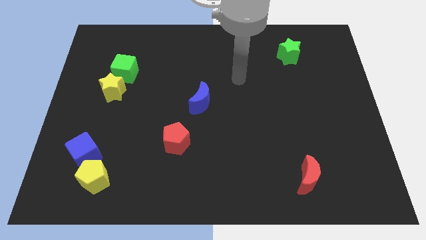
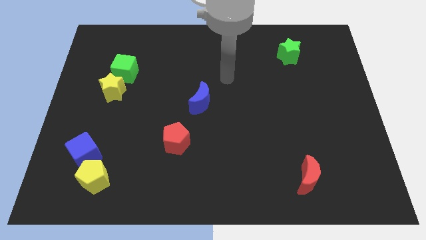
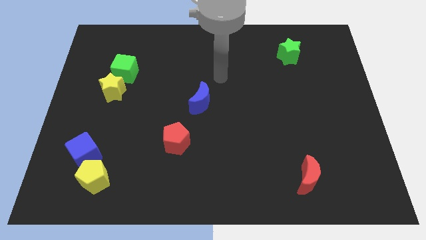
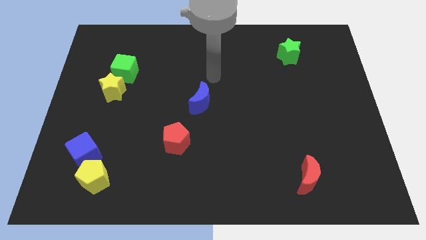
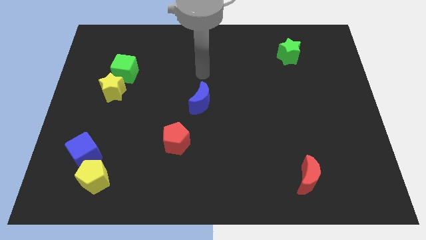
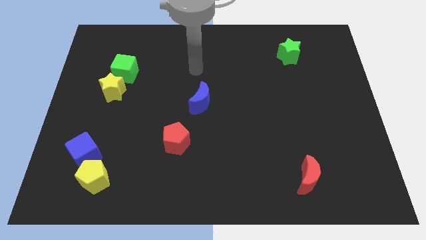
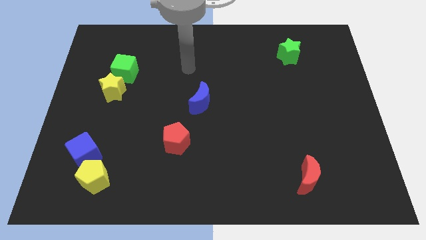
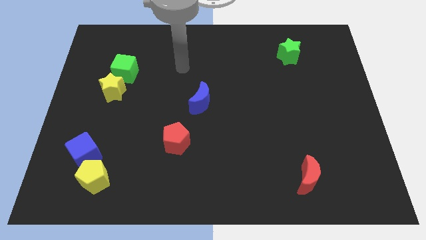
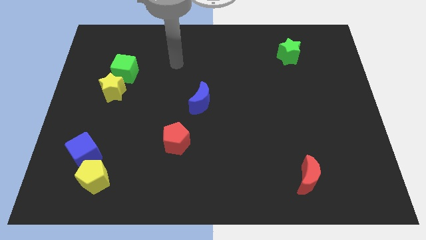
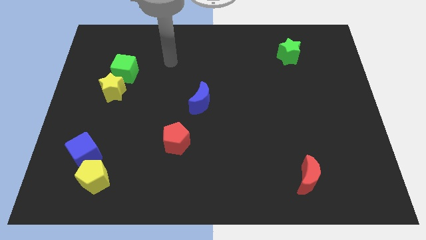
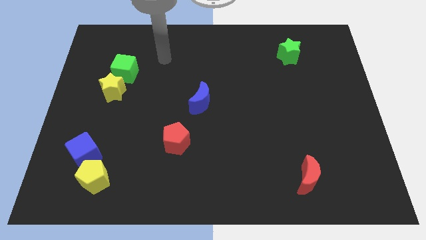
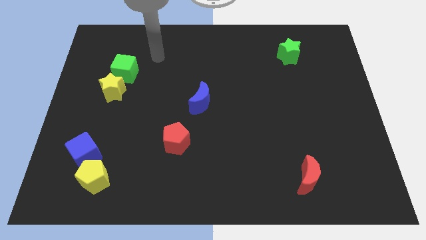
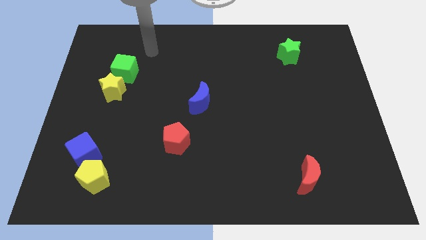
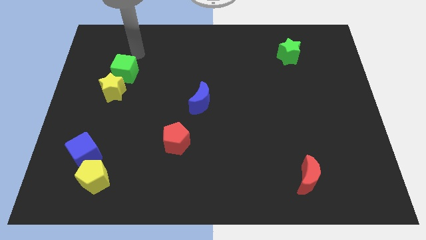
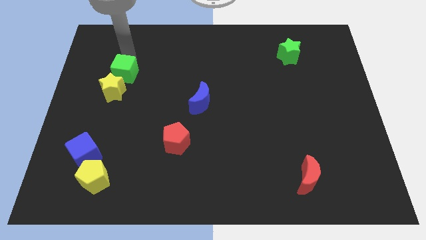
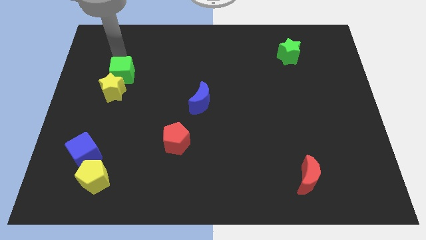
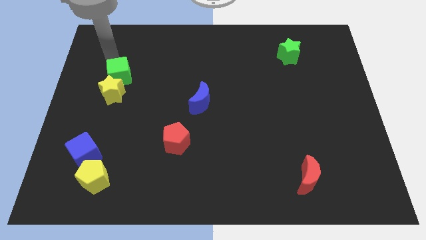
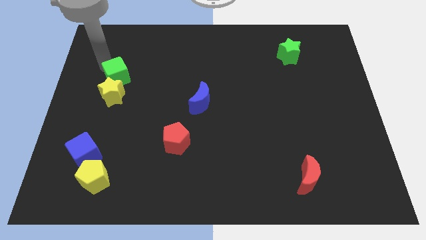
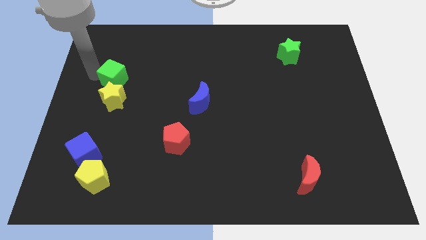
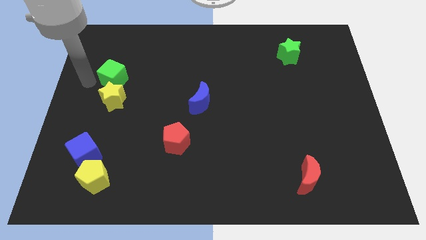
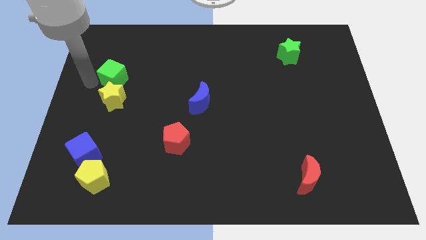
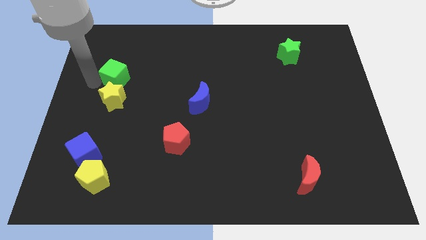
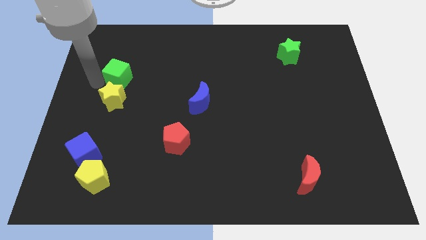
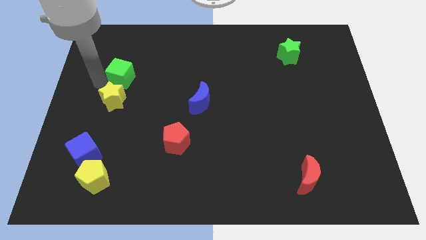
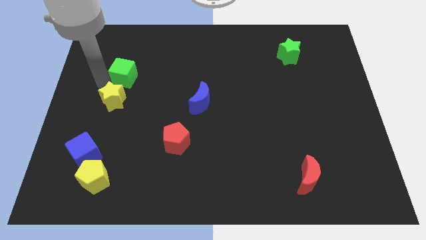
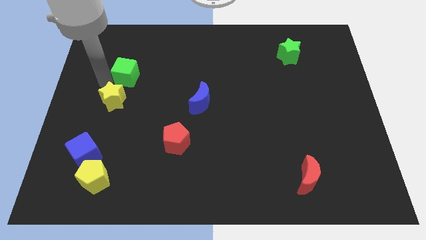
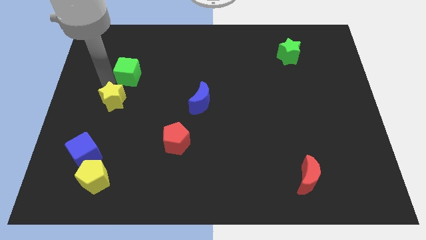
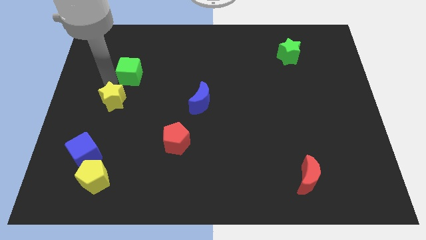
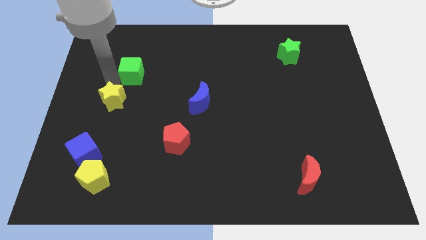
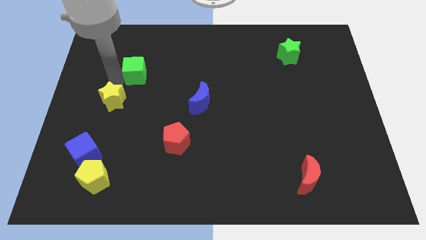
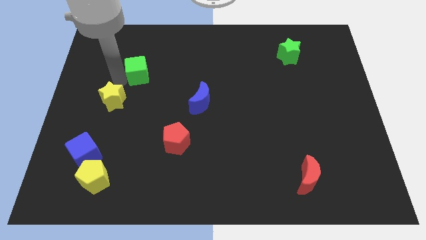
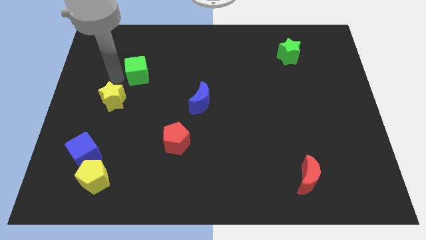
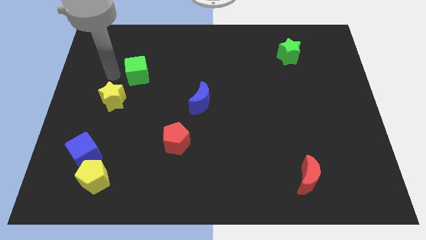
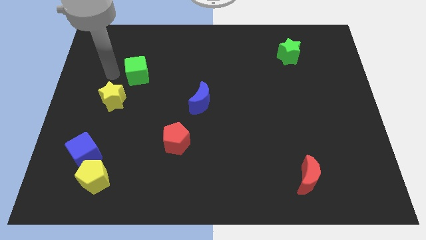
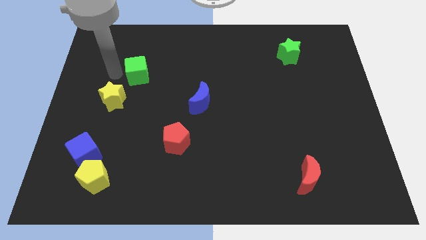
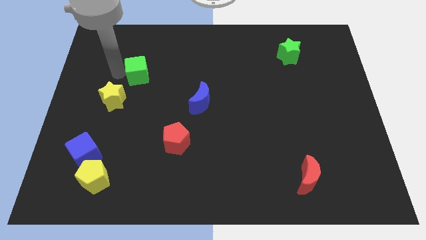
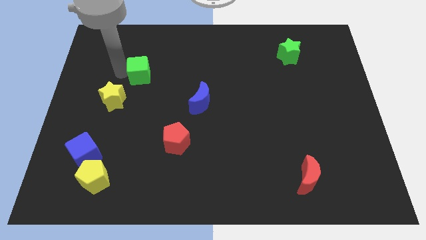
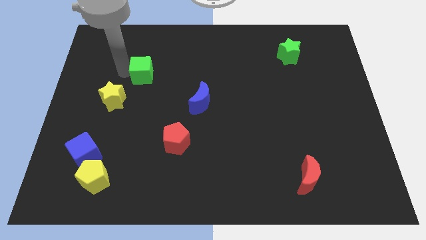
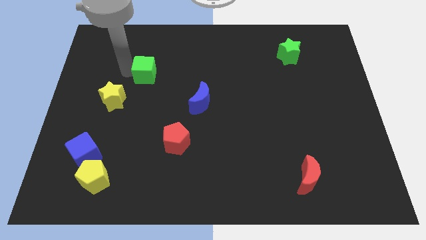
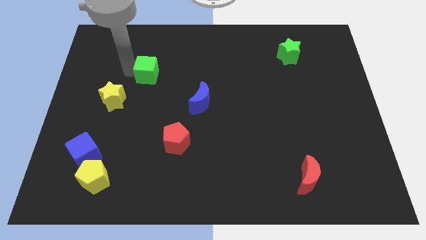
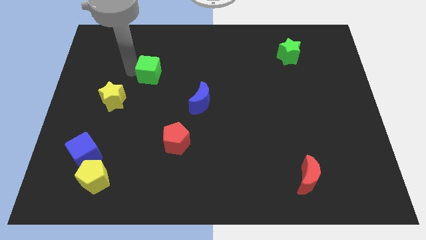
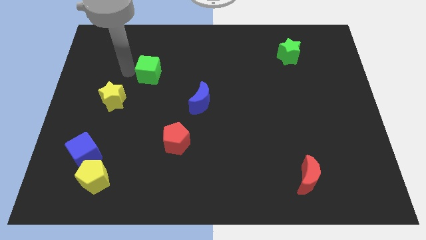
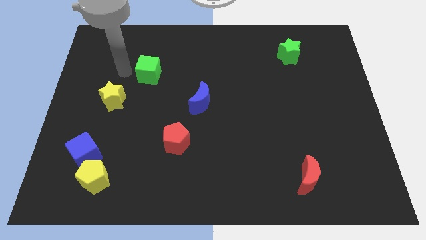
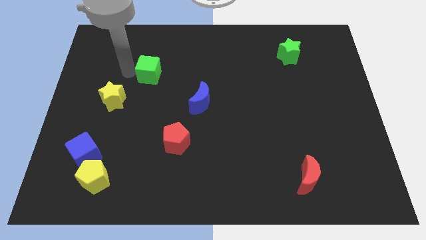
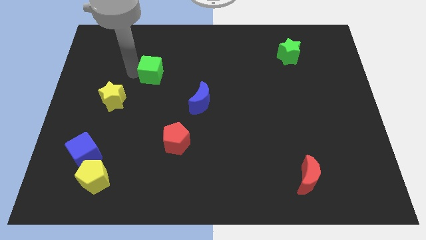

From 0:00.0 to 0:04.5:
push the green cube a bit to the right

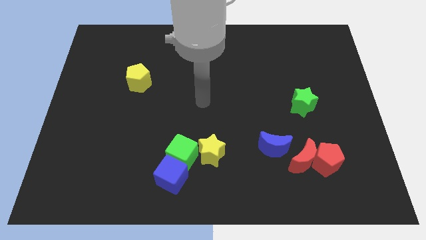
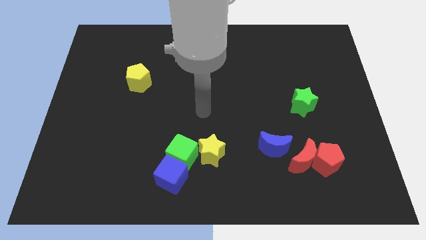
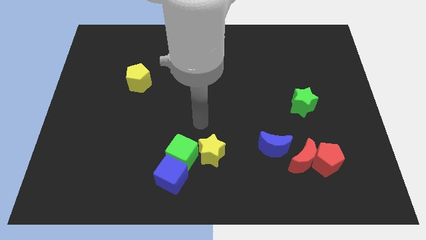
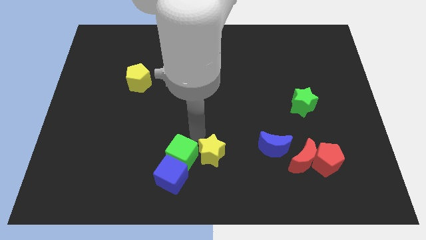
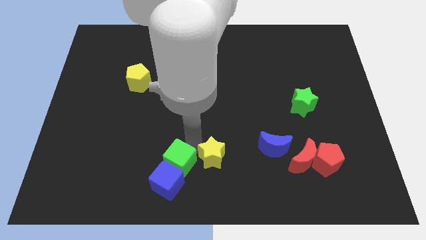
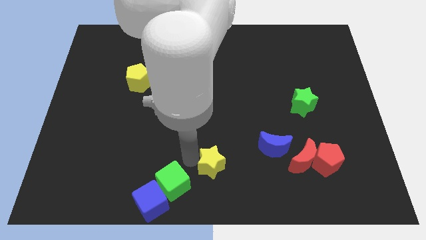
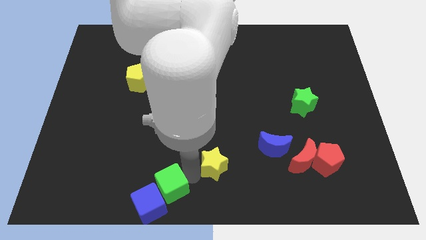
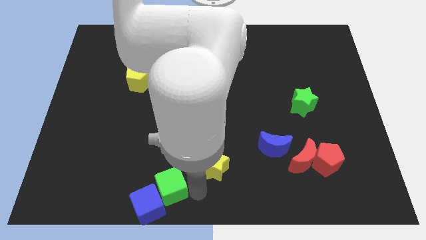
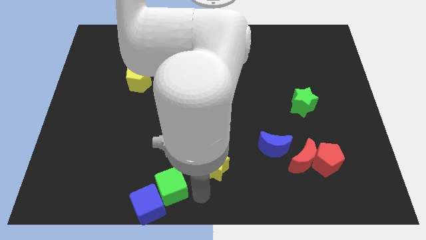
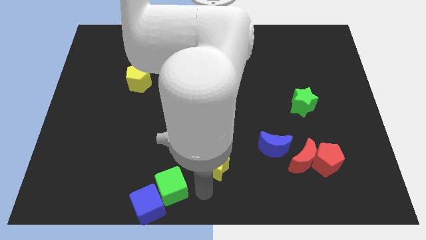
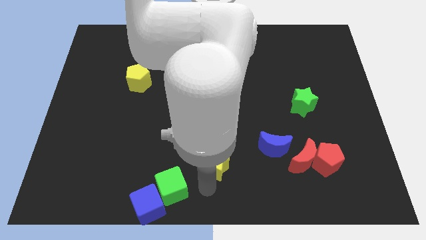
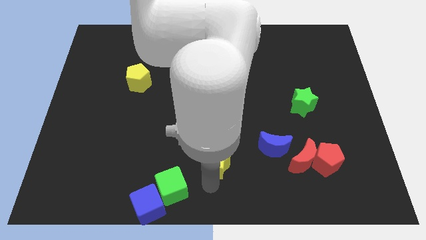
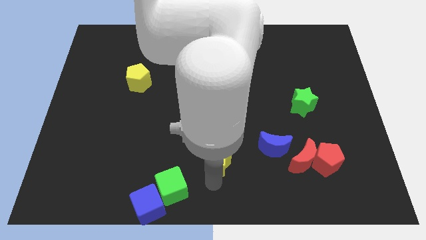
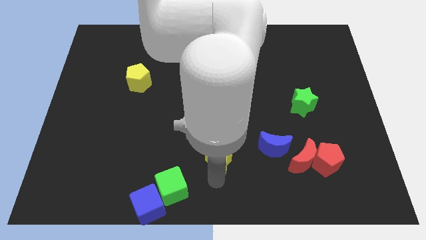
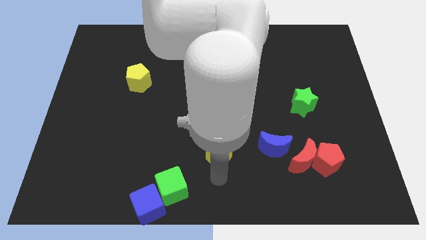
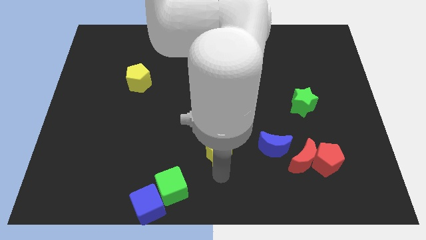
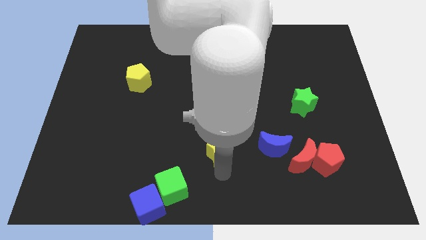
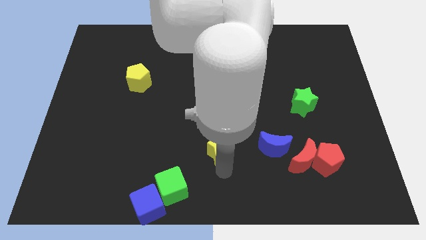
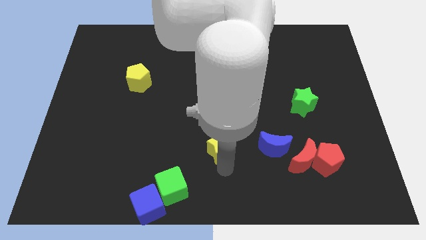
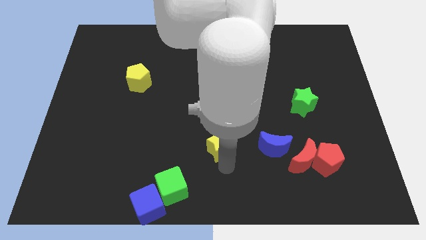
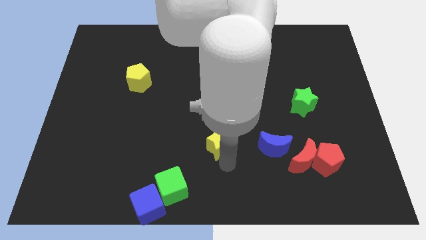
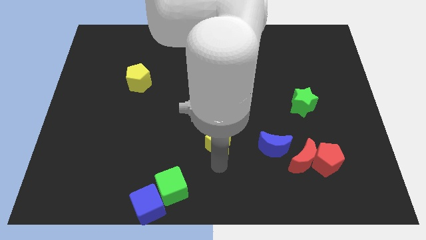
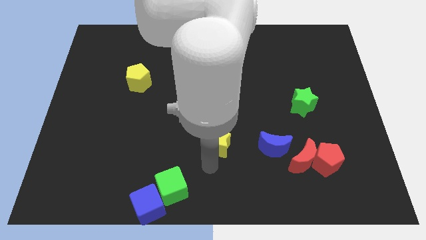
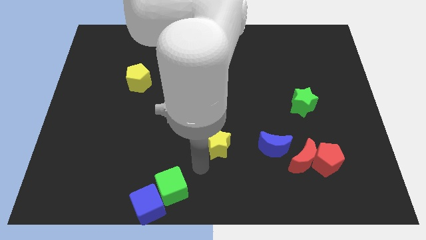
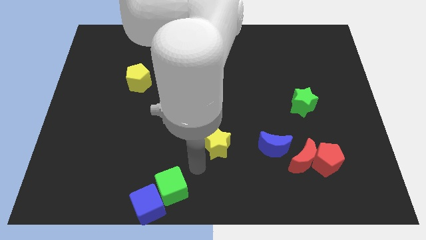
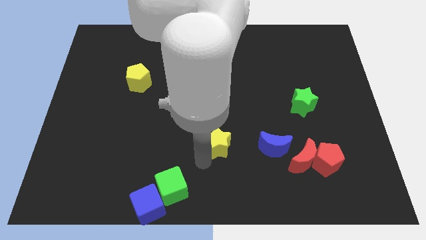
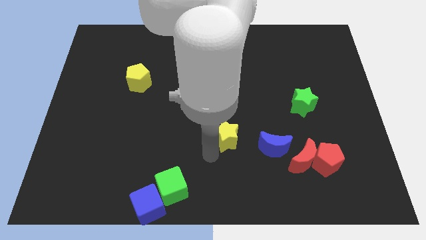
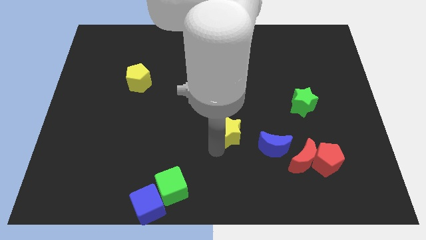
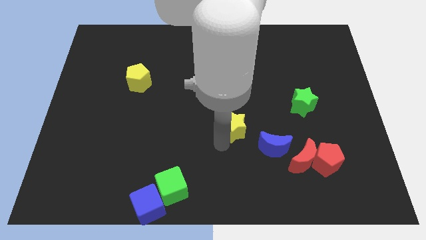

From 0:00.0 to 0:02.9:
push the yellow star up and to the right diagonally a little

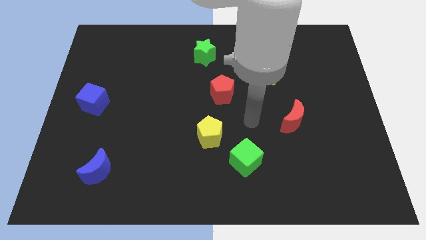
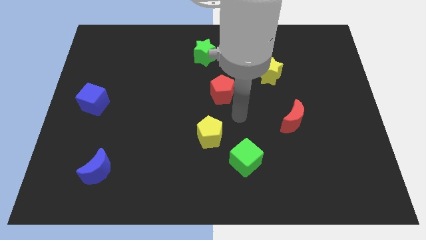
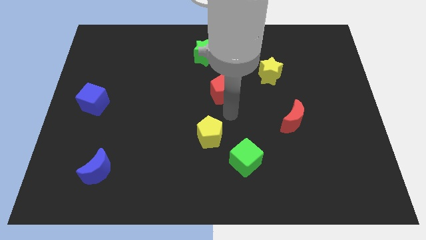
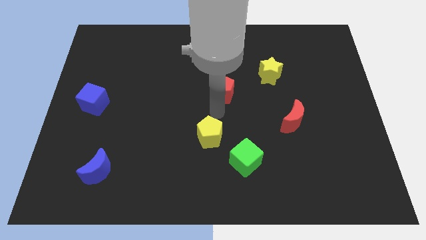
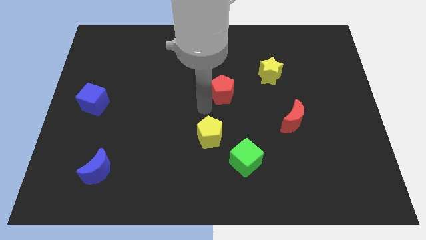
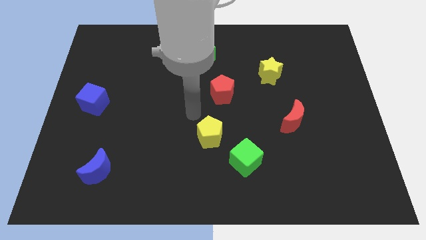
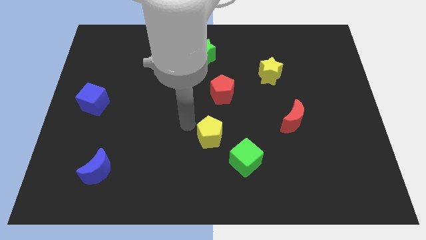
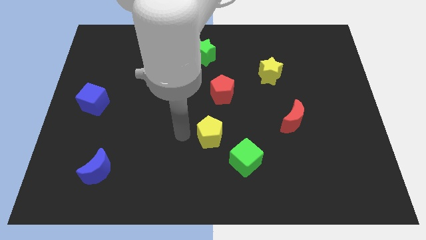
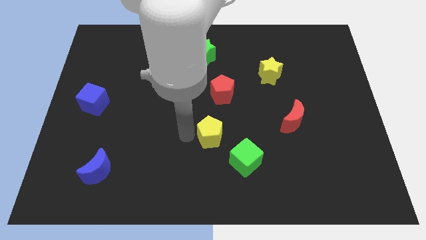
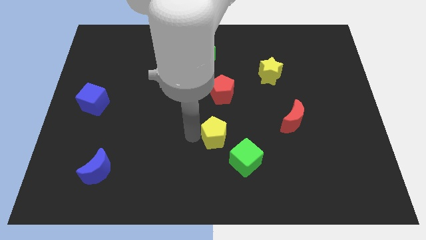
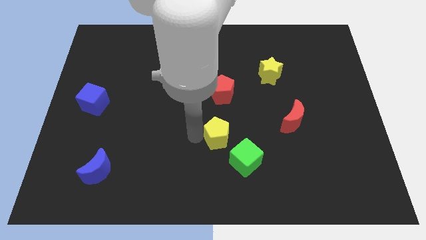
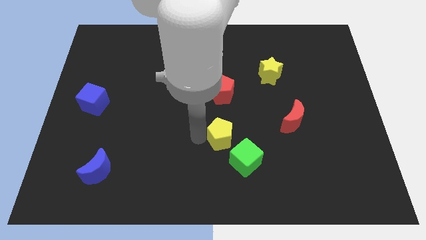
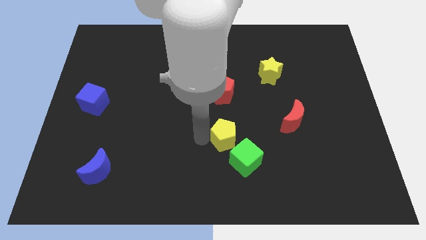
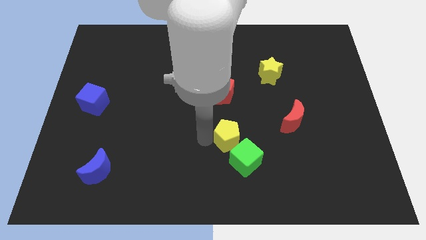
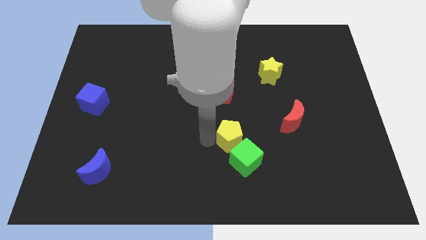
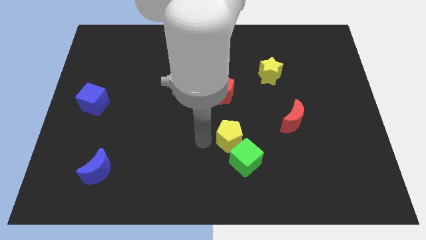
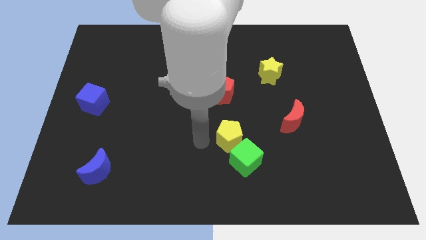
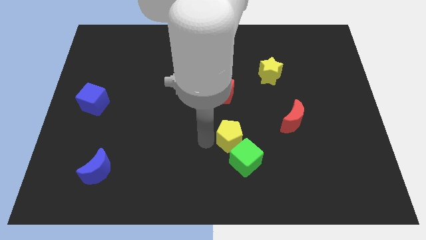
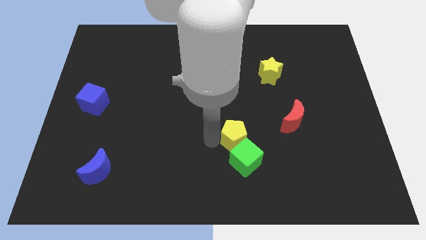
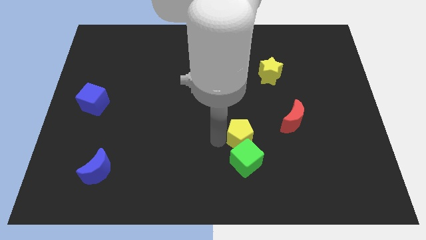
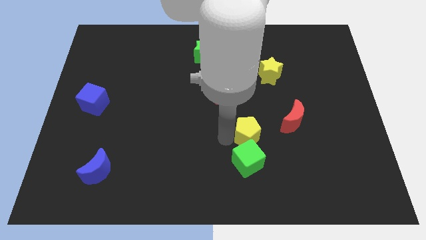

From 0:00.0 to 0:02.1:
slightly slide the yellow pentagon to the right
